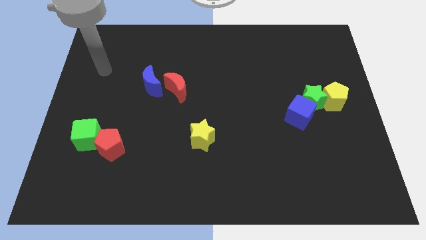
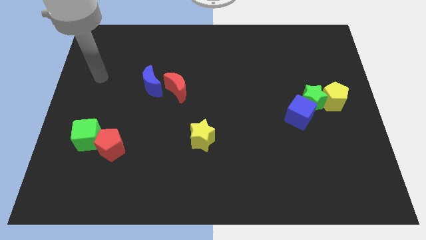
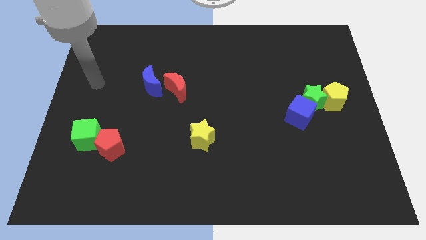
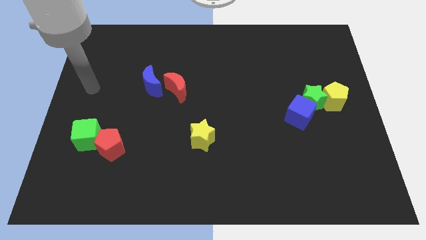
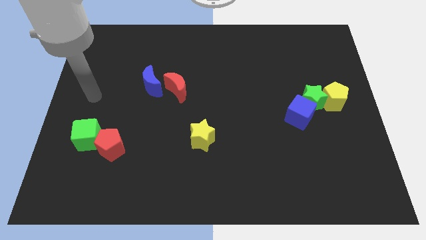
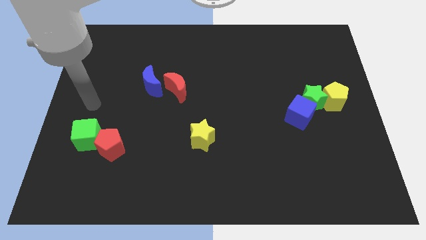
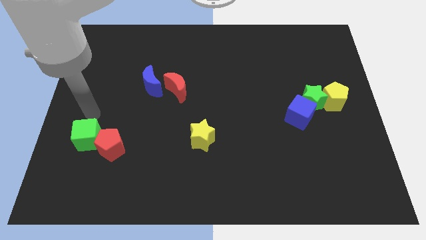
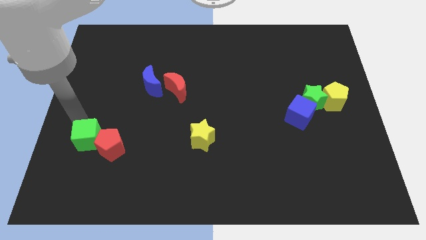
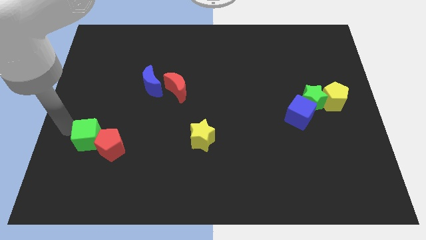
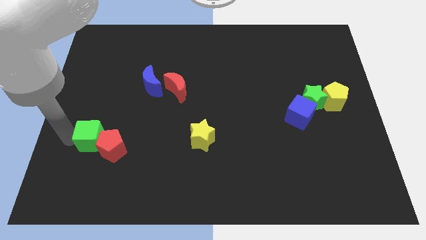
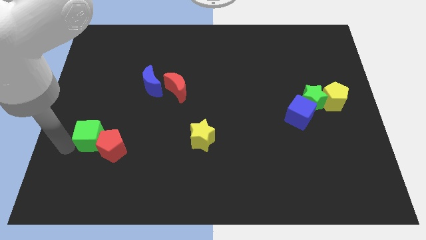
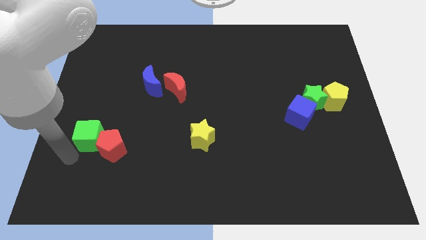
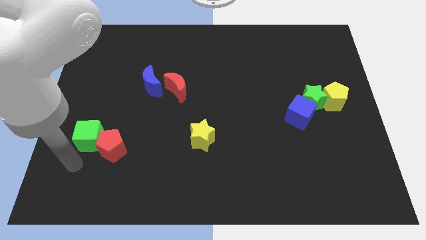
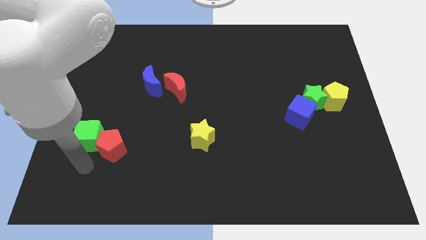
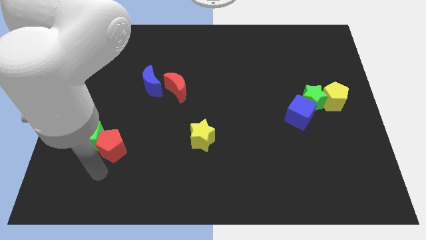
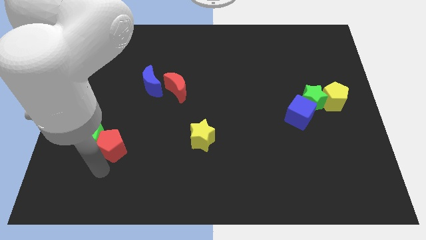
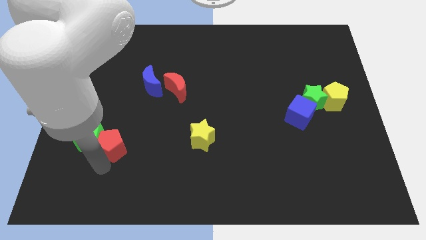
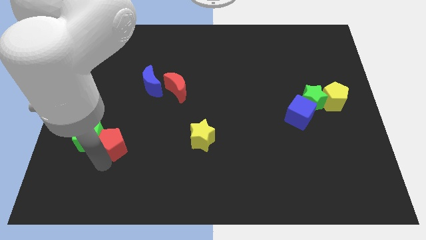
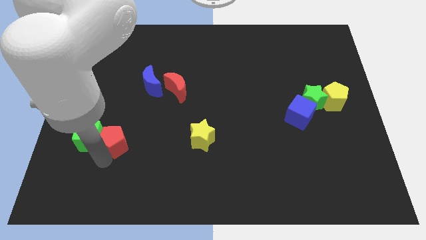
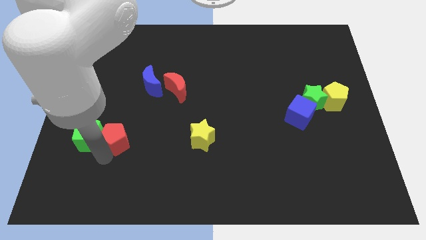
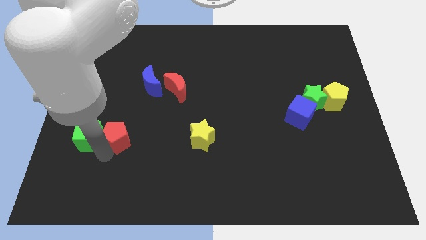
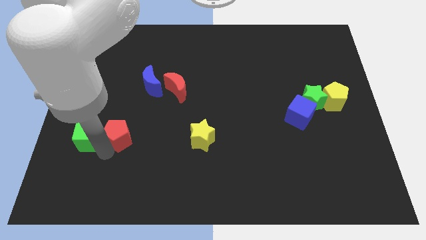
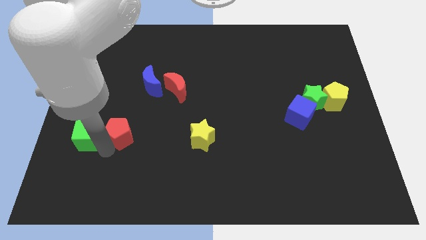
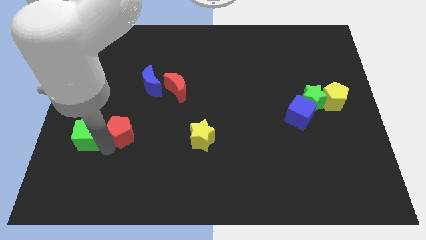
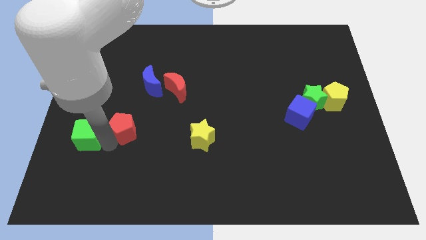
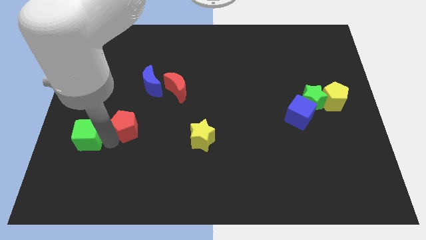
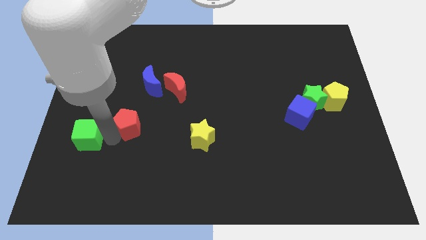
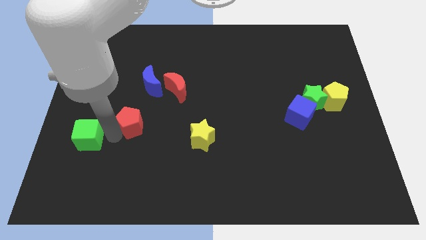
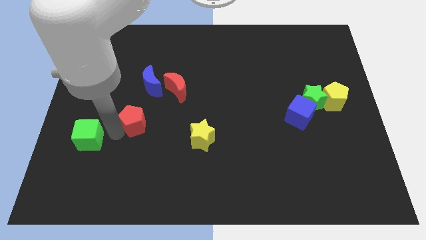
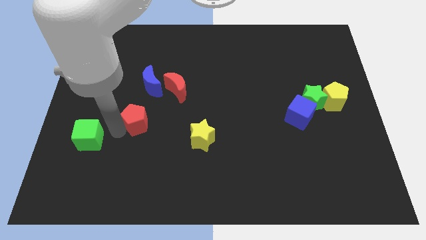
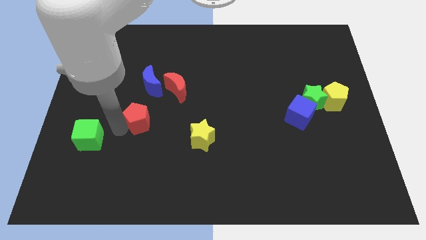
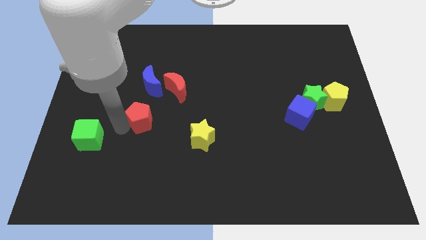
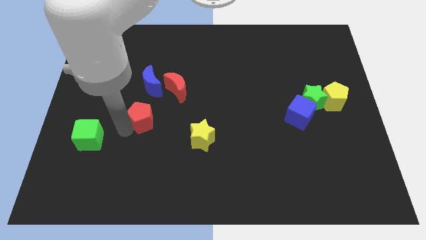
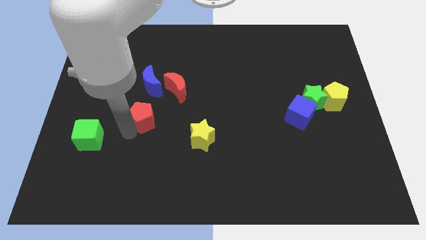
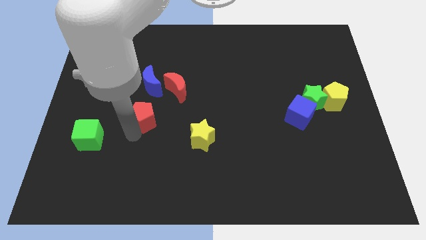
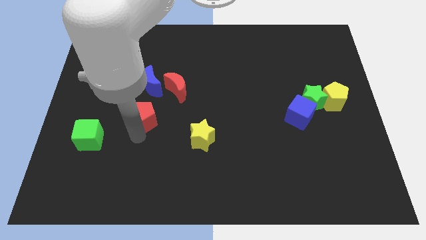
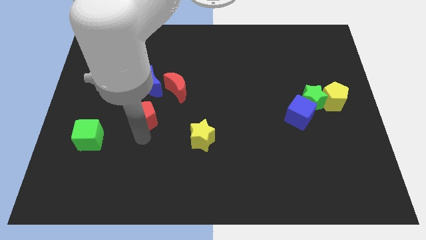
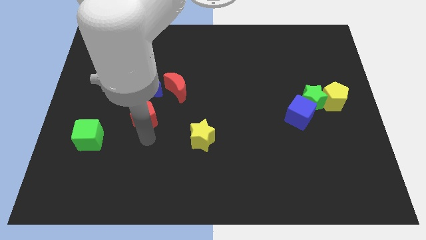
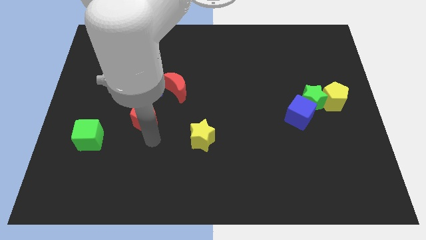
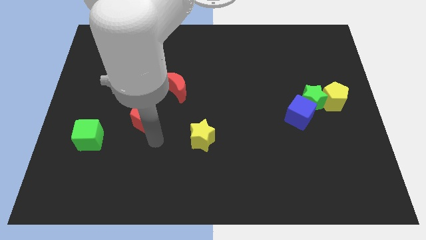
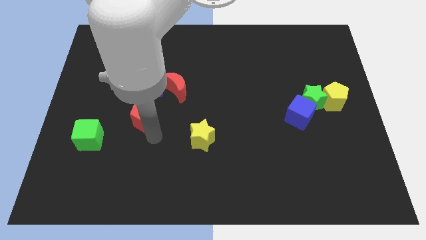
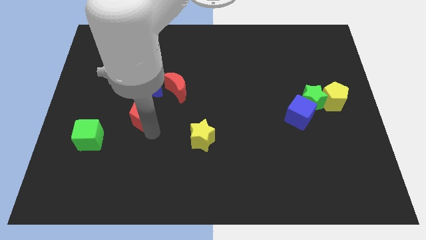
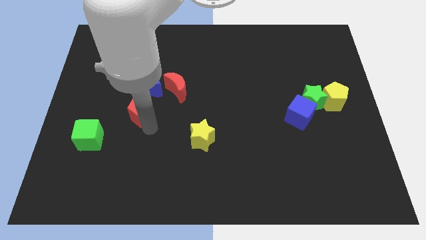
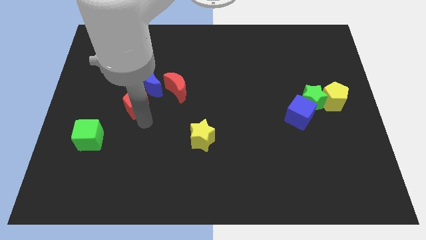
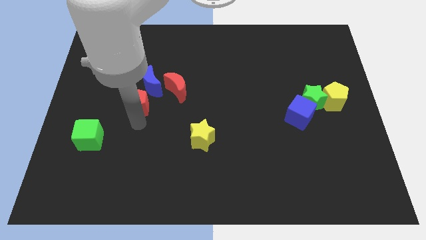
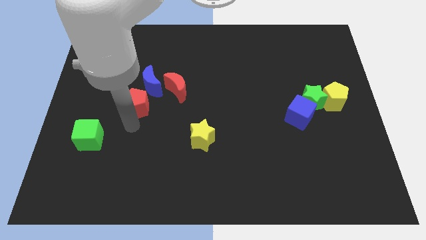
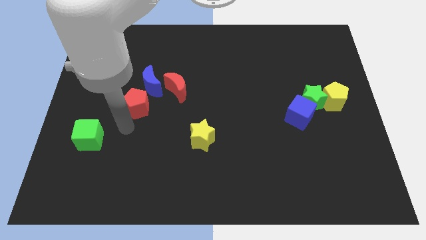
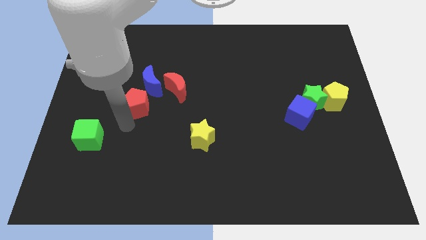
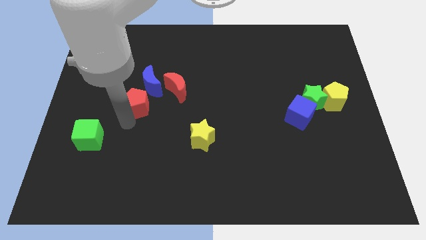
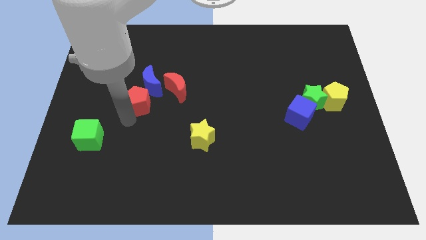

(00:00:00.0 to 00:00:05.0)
push the red pentagon close to the blue moon

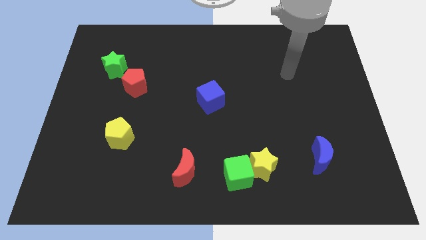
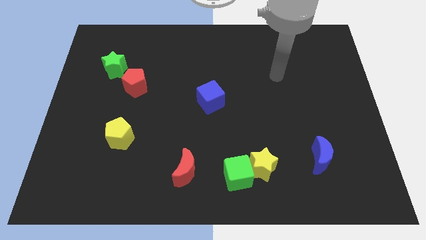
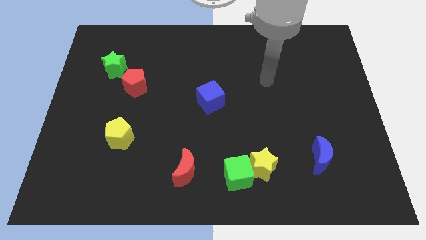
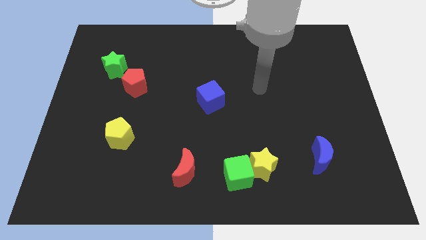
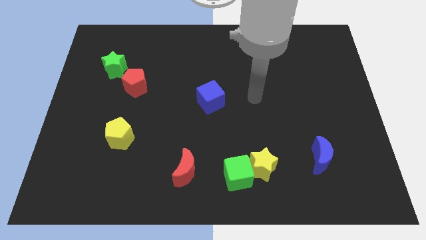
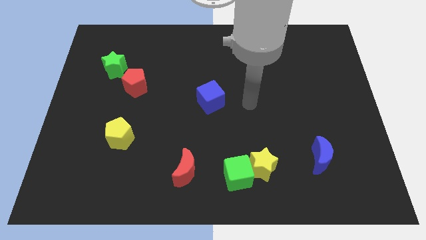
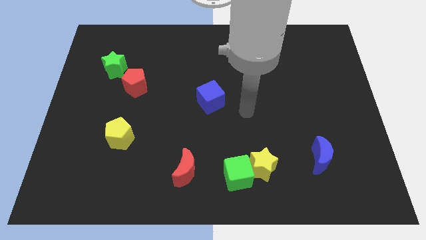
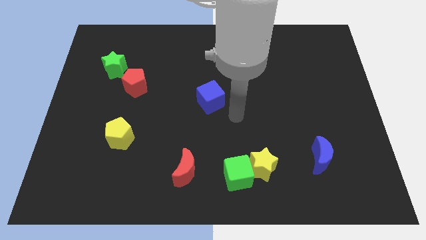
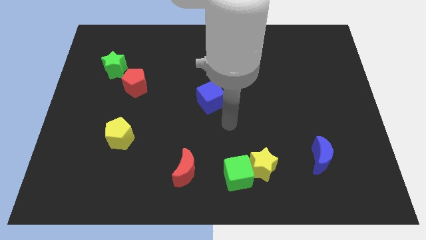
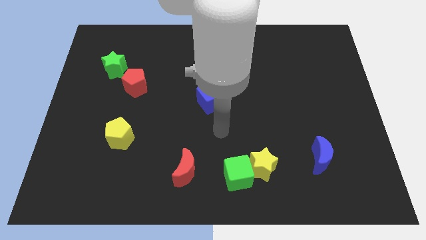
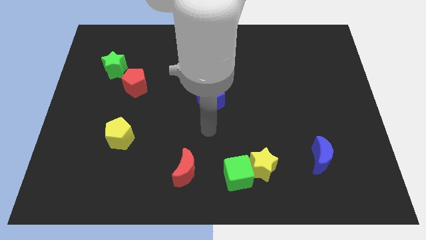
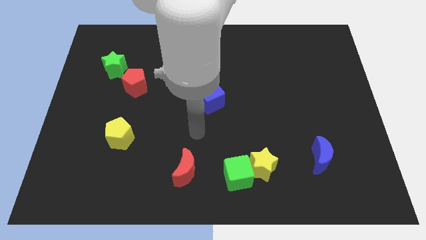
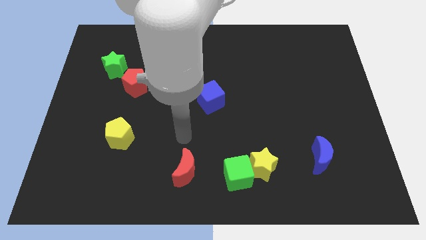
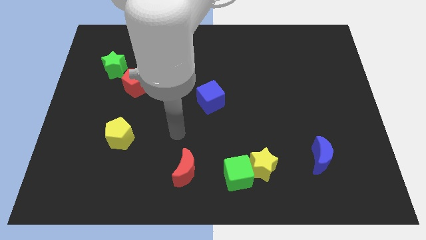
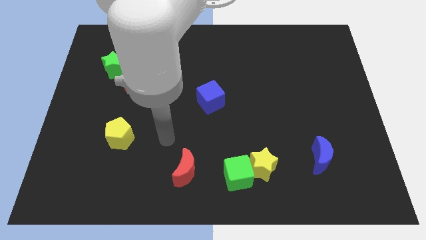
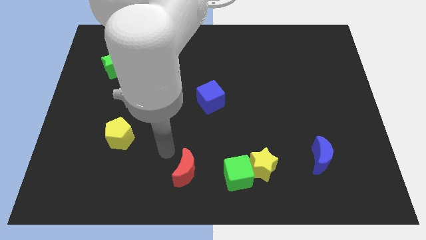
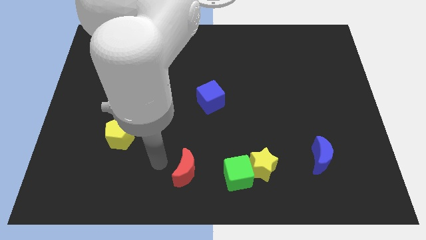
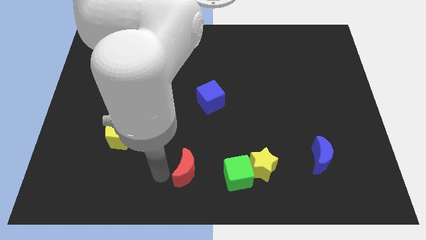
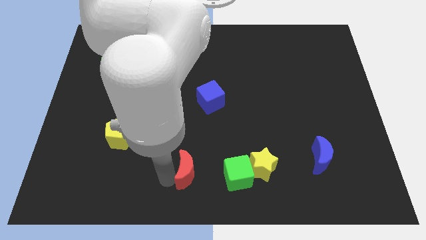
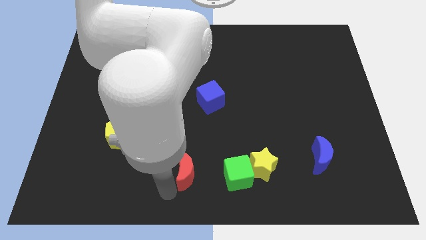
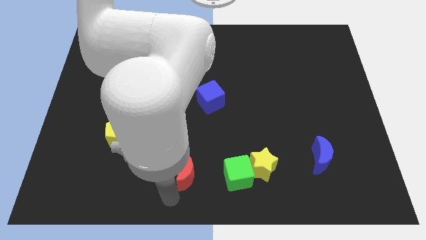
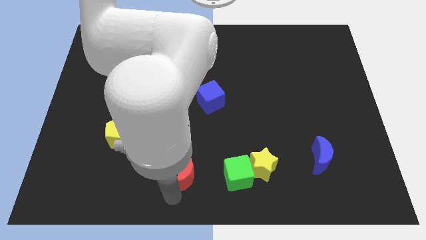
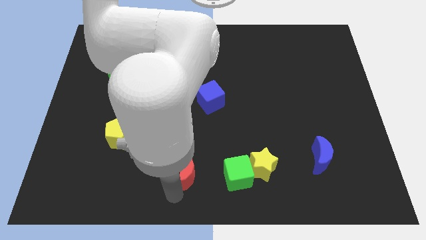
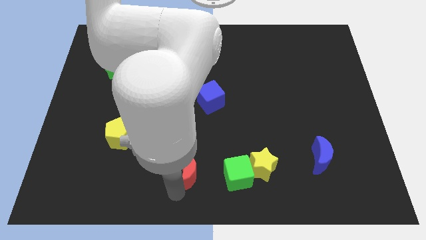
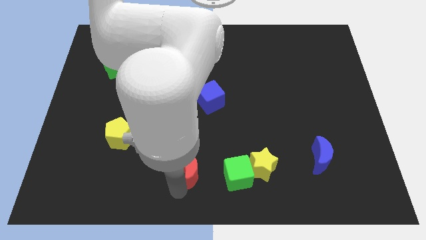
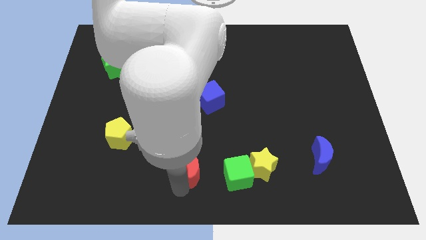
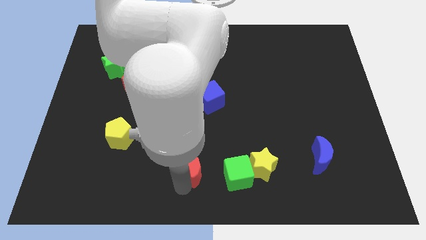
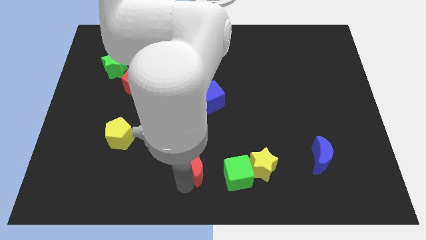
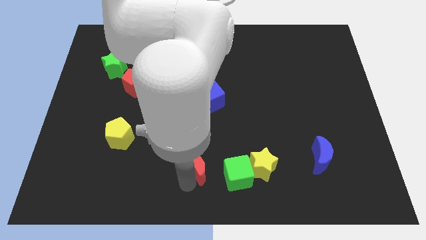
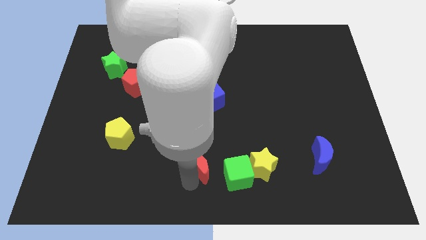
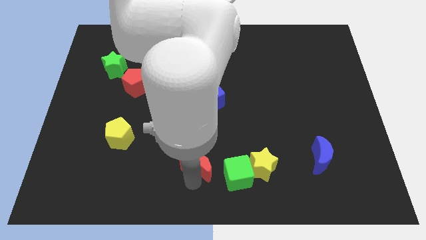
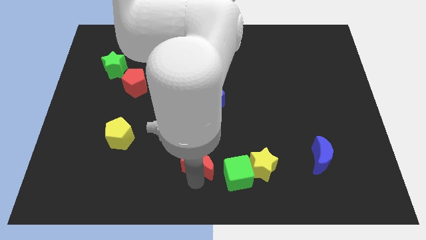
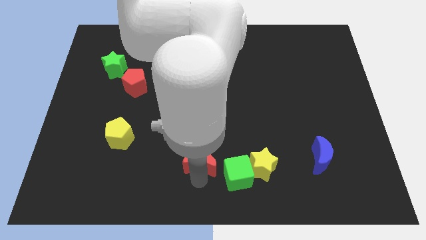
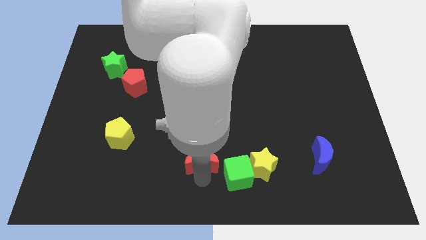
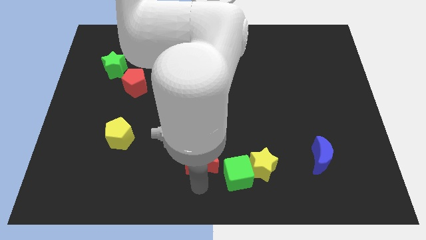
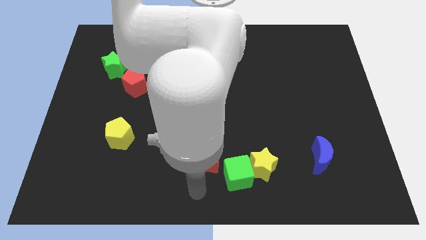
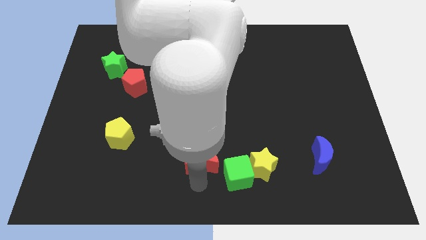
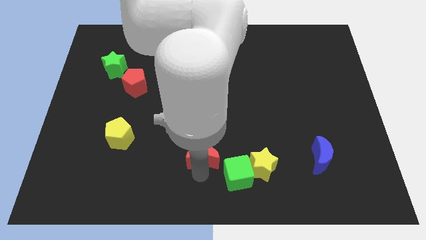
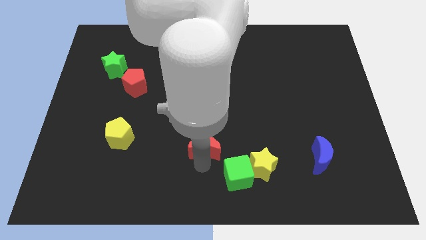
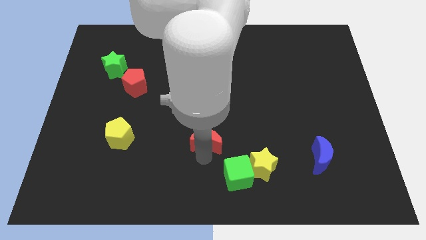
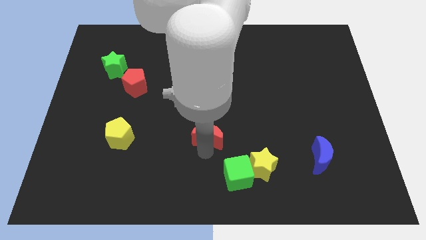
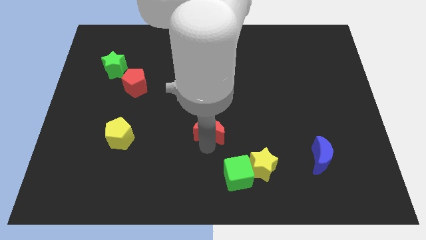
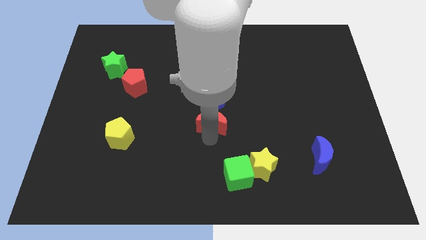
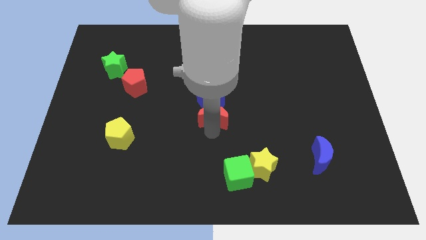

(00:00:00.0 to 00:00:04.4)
put the red moon towards the blue cube
